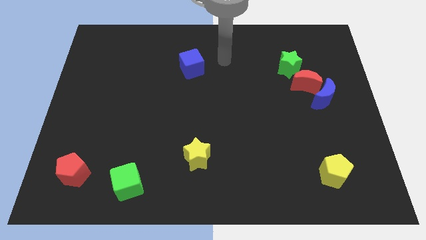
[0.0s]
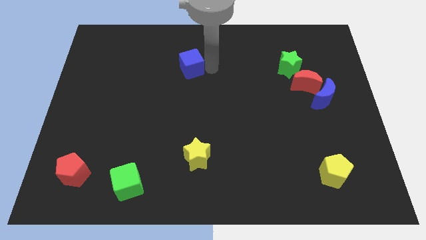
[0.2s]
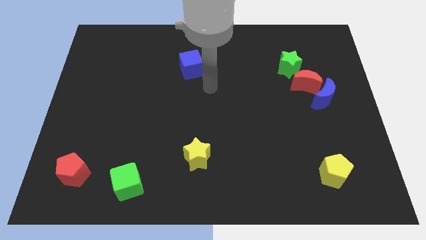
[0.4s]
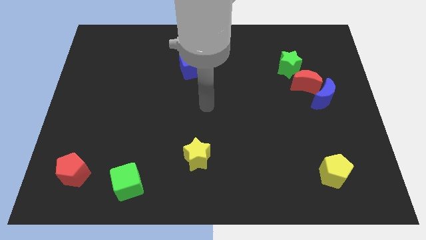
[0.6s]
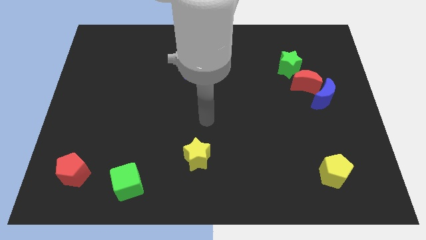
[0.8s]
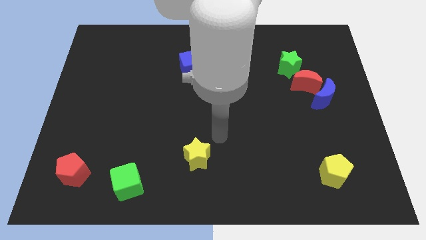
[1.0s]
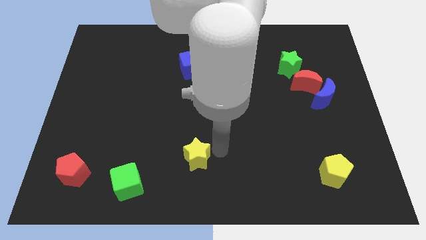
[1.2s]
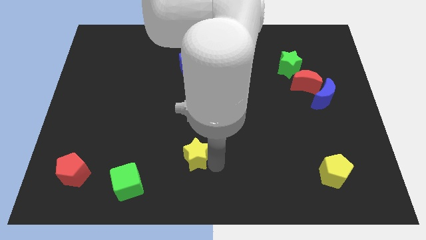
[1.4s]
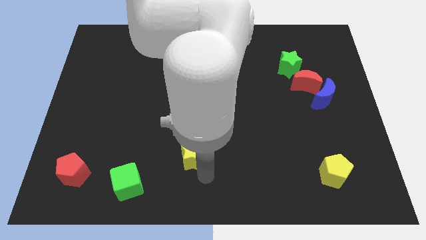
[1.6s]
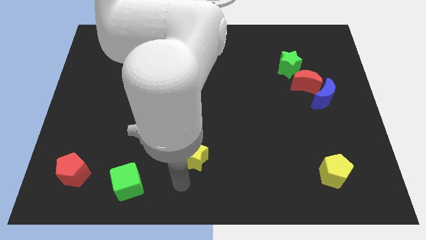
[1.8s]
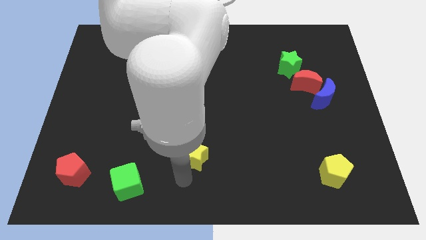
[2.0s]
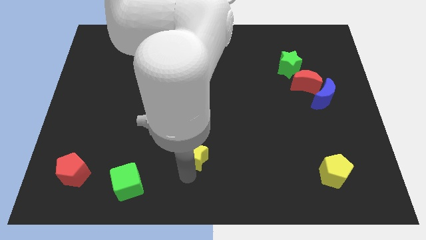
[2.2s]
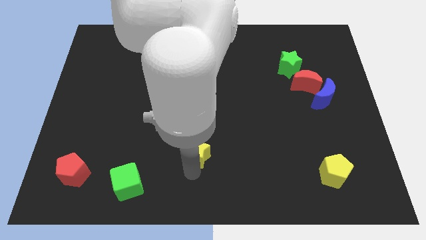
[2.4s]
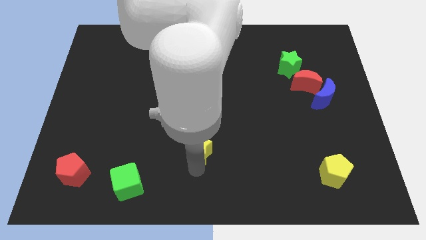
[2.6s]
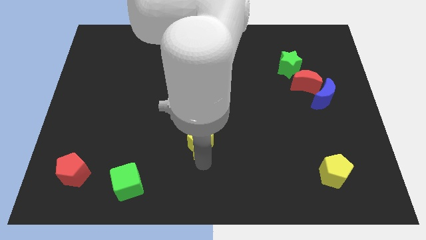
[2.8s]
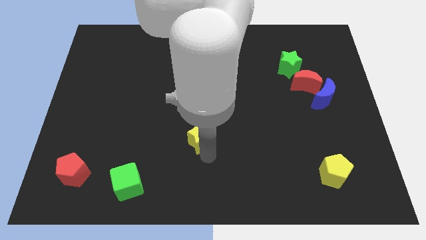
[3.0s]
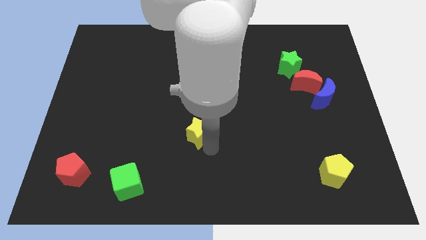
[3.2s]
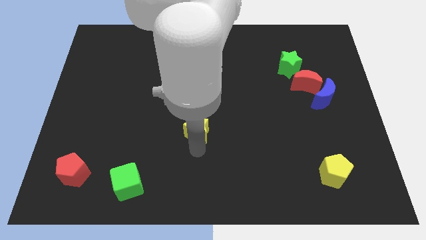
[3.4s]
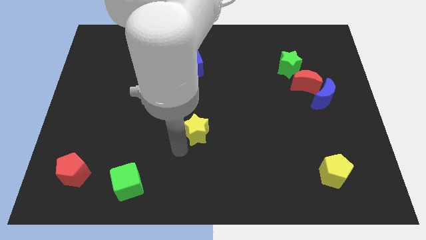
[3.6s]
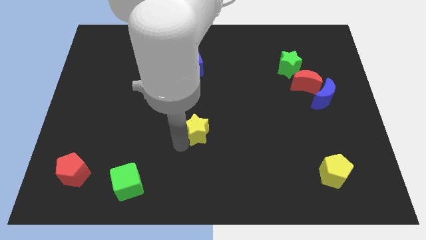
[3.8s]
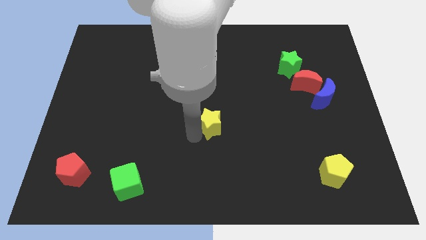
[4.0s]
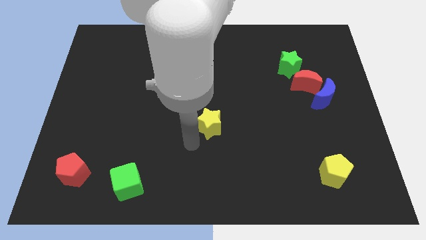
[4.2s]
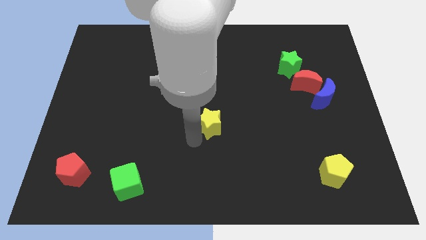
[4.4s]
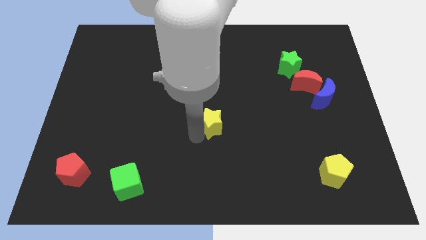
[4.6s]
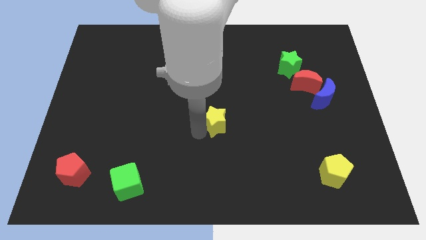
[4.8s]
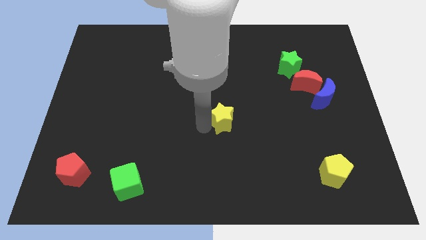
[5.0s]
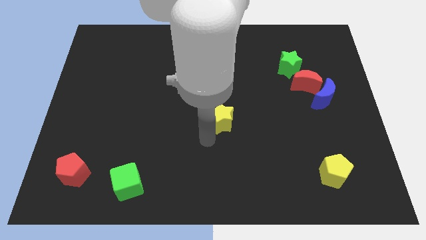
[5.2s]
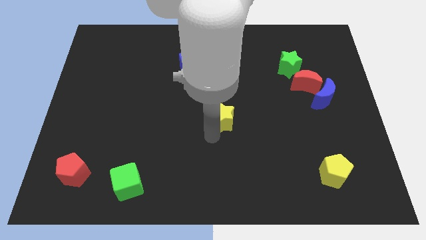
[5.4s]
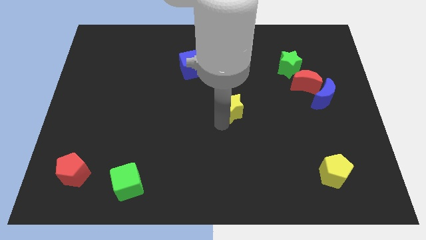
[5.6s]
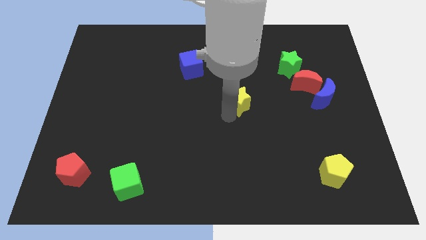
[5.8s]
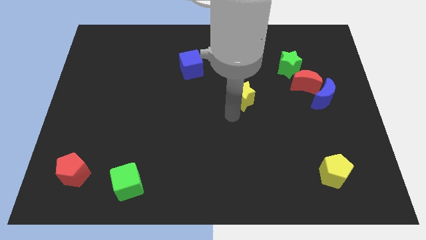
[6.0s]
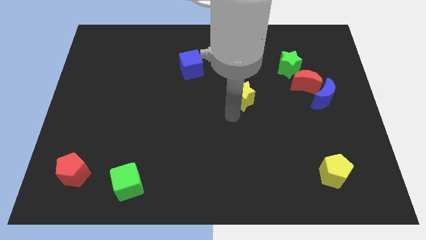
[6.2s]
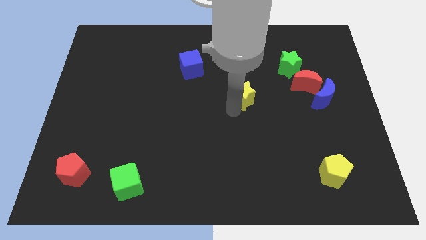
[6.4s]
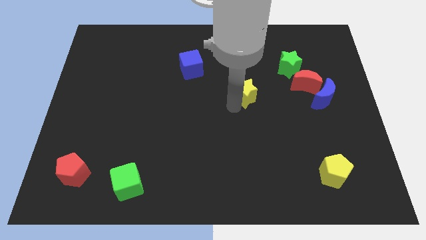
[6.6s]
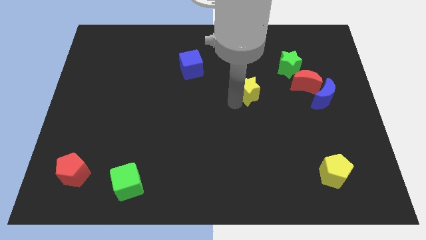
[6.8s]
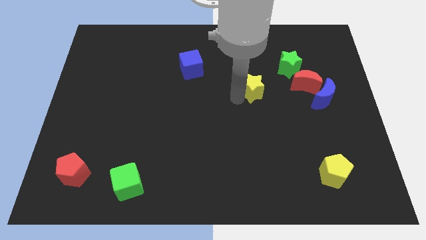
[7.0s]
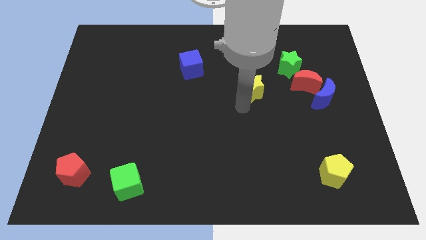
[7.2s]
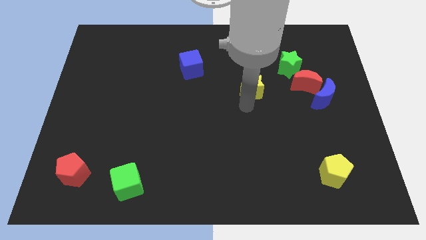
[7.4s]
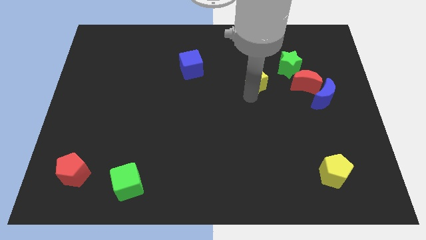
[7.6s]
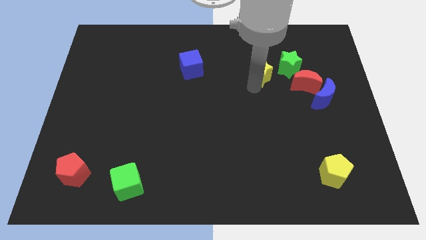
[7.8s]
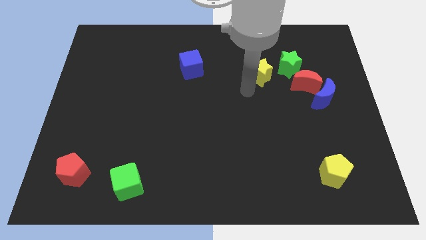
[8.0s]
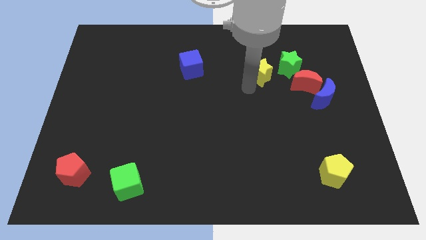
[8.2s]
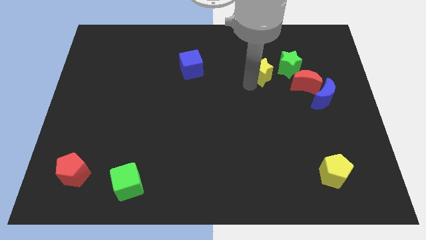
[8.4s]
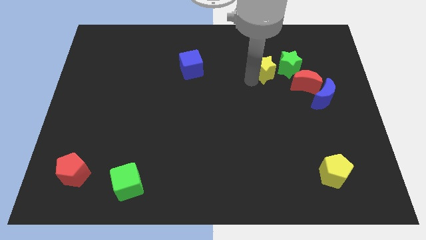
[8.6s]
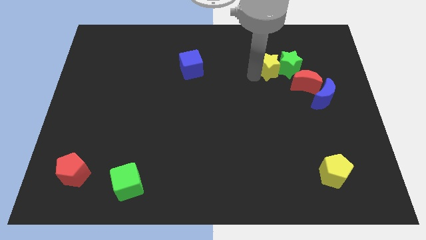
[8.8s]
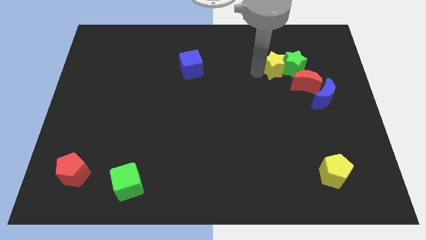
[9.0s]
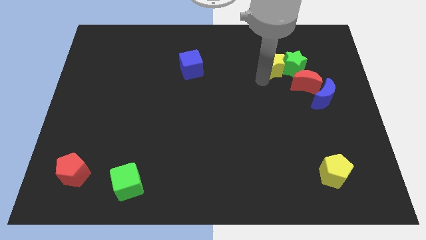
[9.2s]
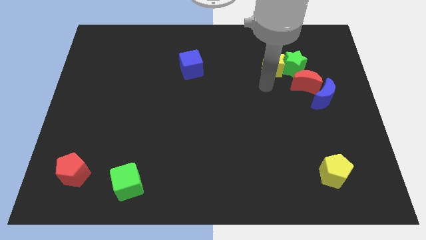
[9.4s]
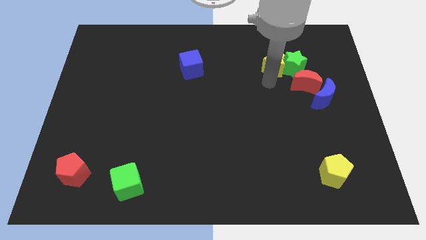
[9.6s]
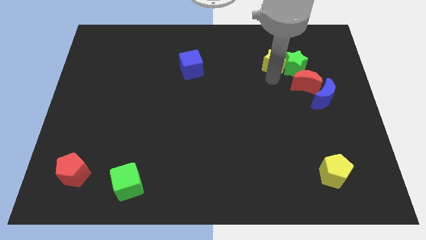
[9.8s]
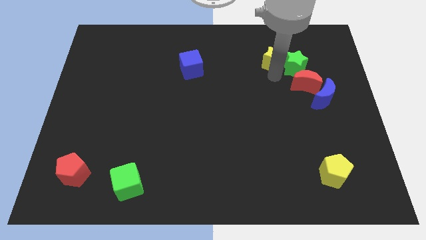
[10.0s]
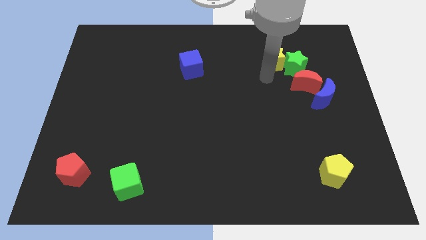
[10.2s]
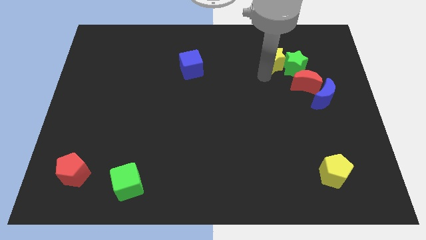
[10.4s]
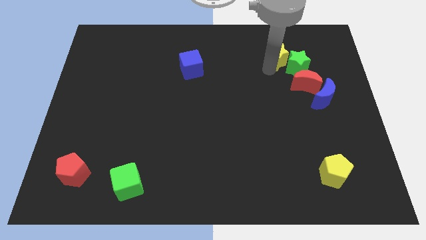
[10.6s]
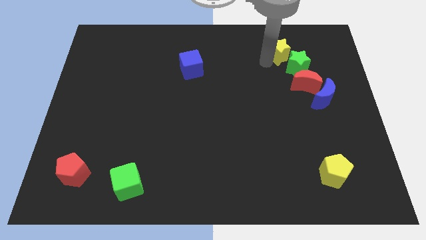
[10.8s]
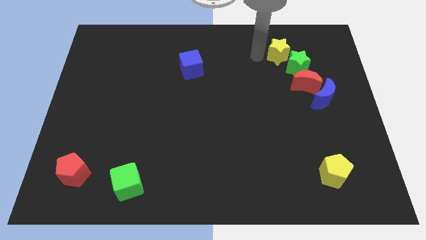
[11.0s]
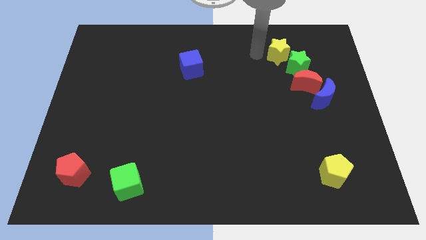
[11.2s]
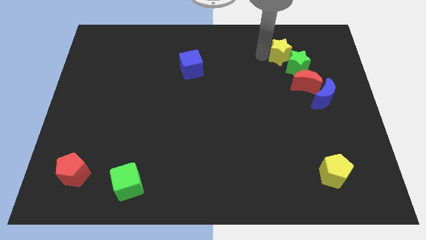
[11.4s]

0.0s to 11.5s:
push the yellow star to the top side of the red moon

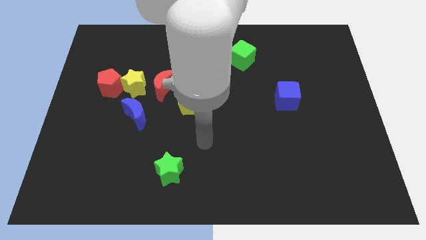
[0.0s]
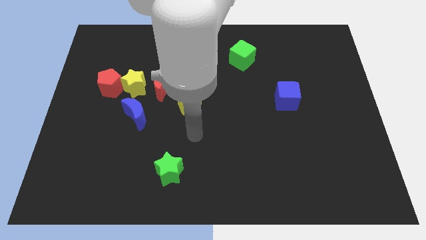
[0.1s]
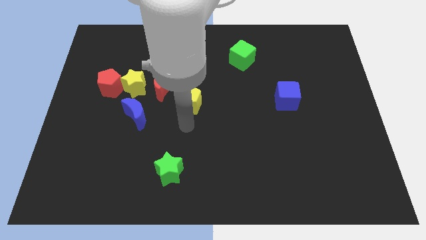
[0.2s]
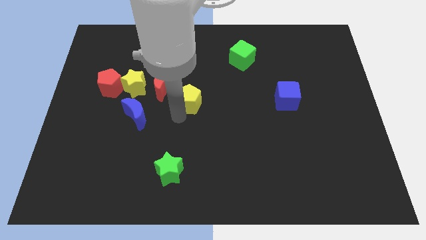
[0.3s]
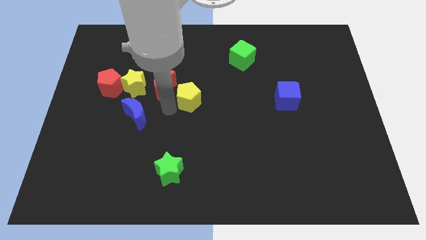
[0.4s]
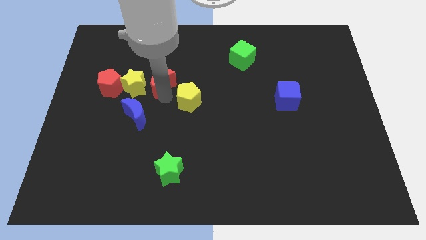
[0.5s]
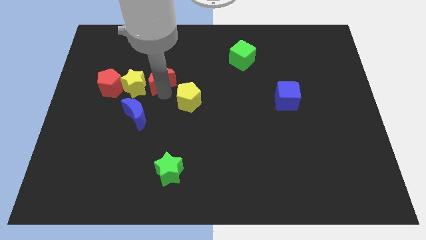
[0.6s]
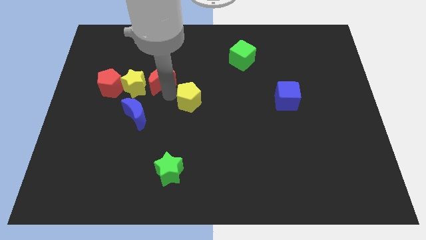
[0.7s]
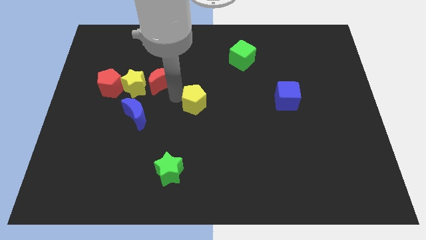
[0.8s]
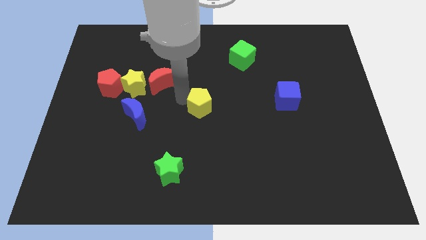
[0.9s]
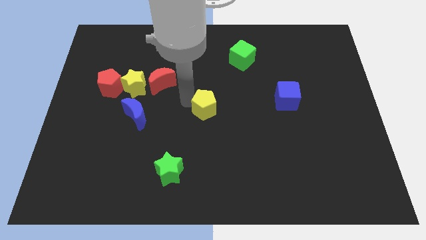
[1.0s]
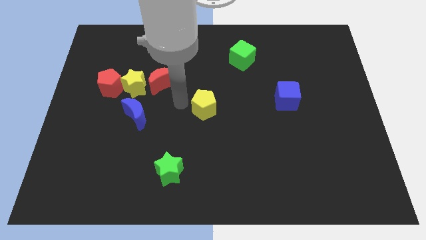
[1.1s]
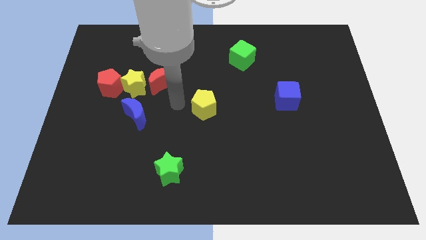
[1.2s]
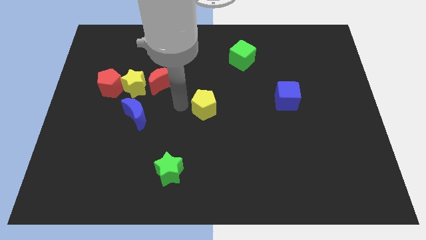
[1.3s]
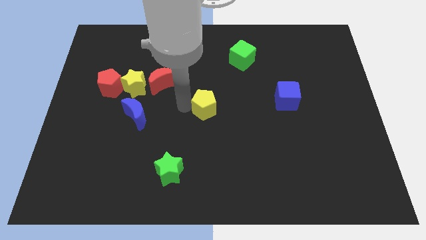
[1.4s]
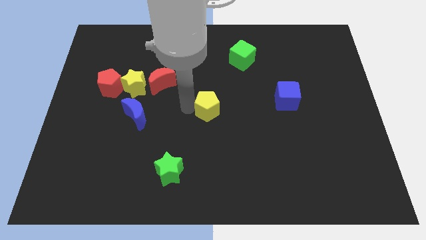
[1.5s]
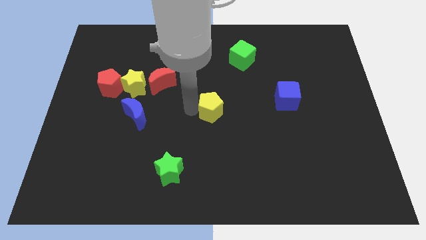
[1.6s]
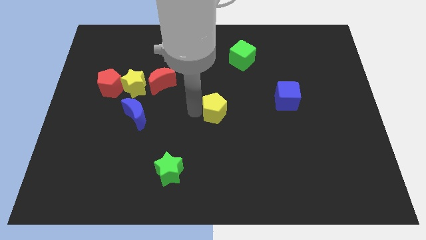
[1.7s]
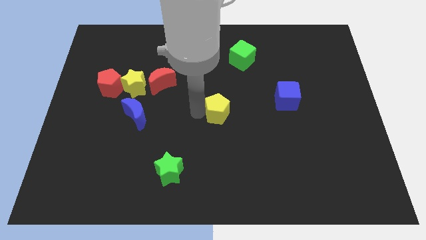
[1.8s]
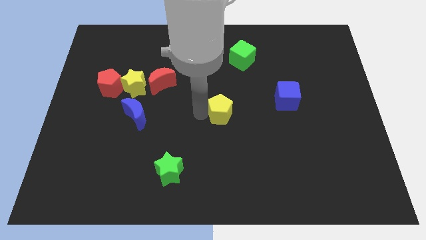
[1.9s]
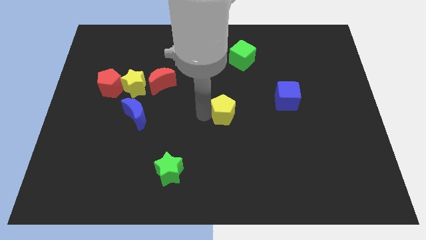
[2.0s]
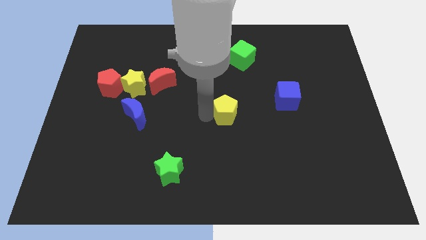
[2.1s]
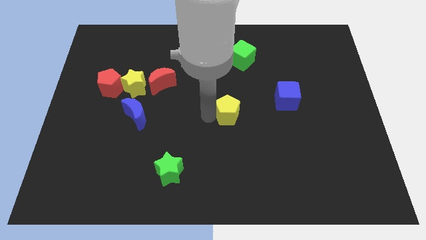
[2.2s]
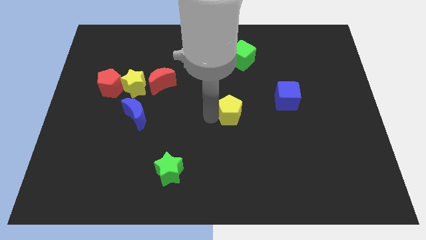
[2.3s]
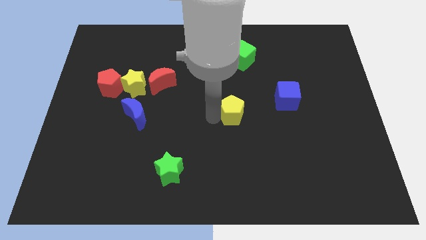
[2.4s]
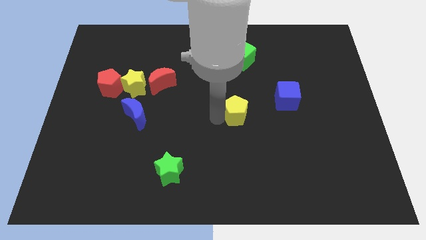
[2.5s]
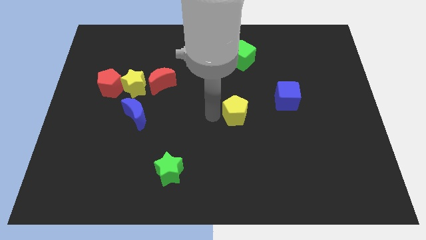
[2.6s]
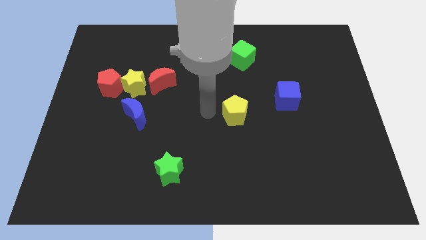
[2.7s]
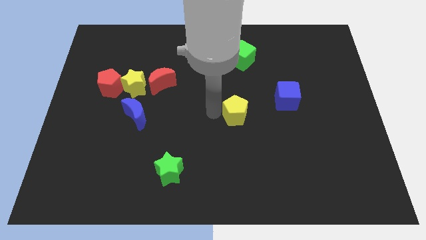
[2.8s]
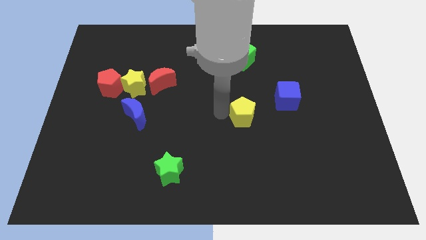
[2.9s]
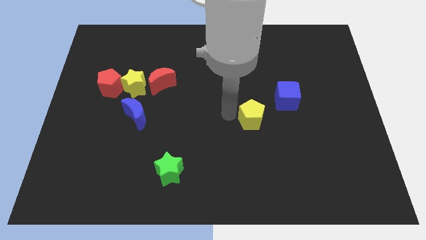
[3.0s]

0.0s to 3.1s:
put the yellow pentagon to the bottom left side of the blue cube
